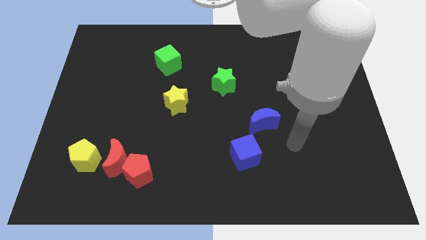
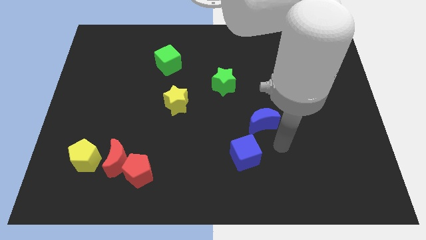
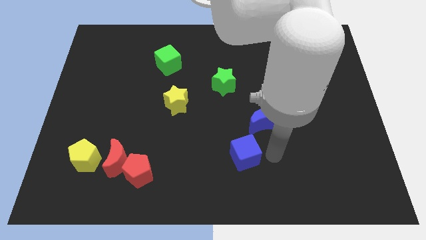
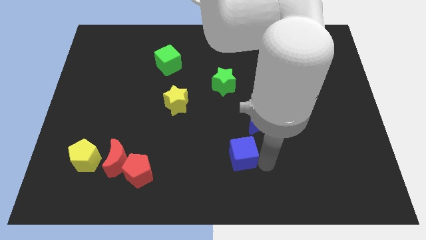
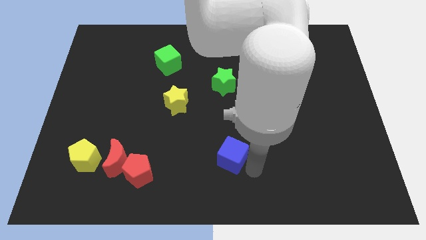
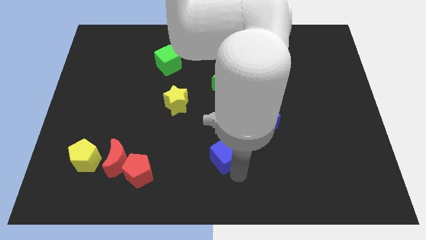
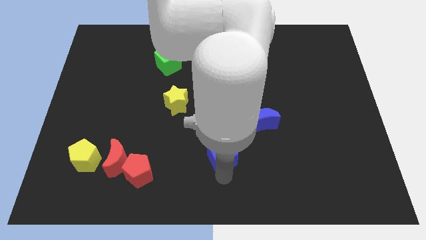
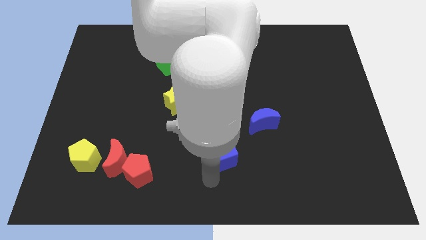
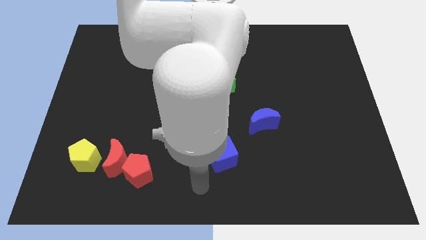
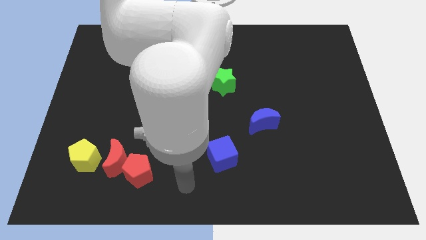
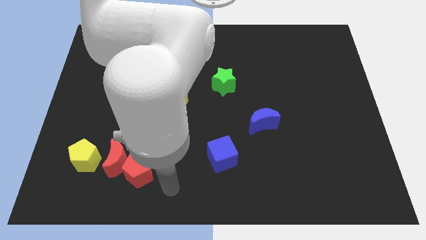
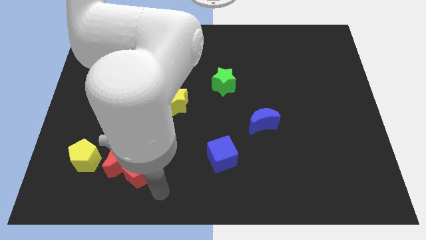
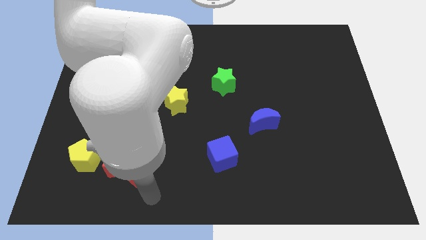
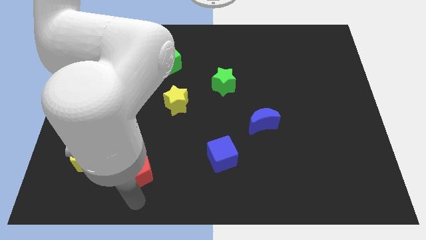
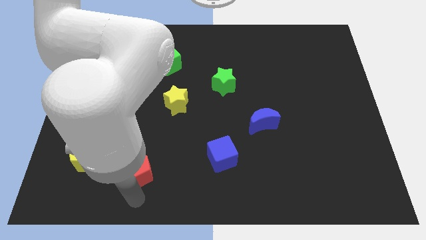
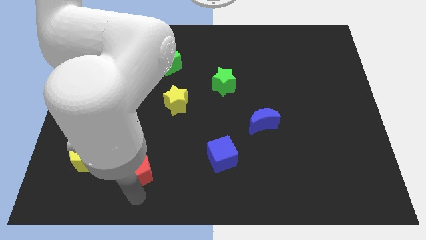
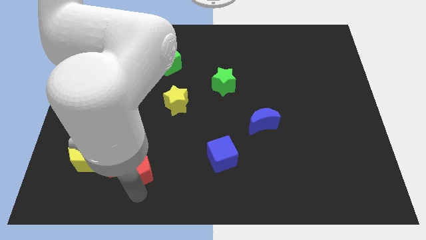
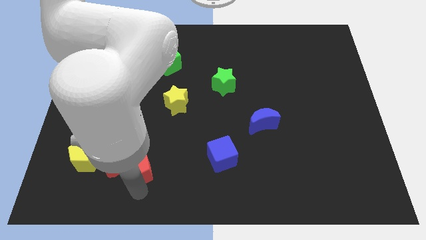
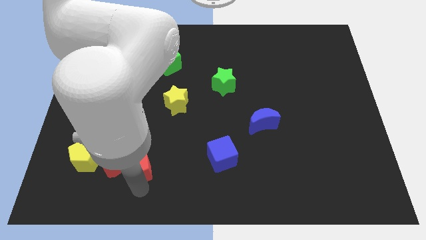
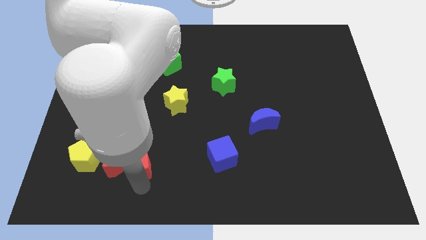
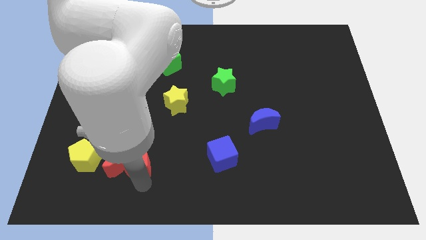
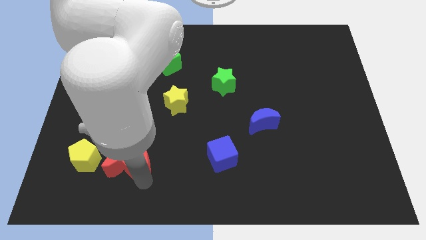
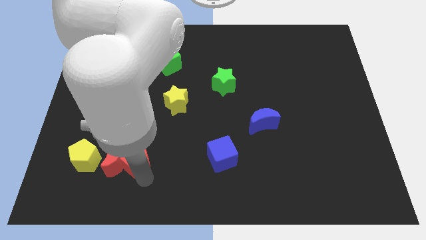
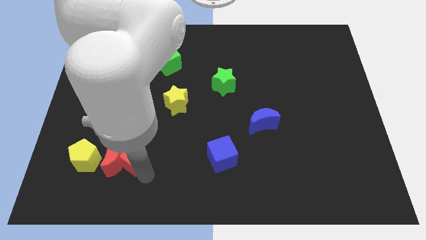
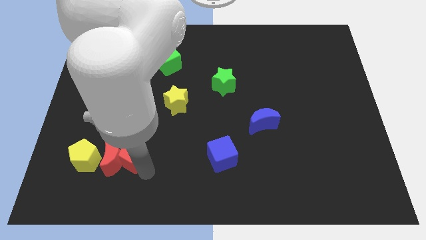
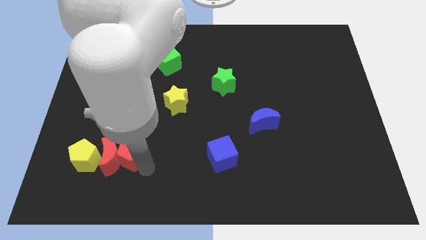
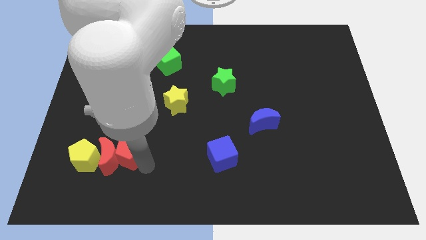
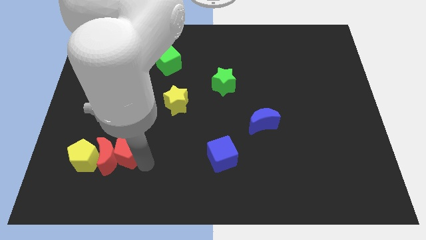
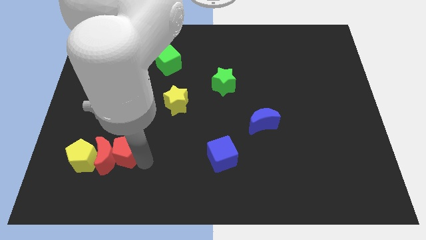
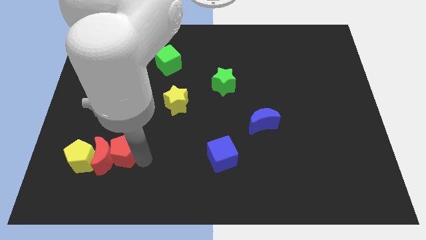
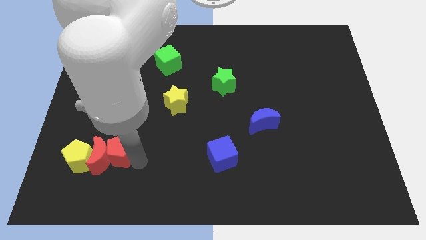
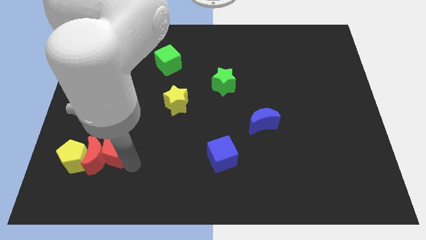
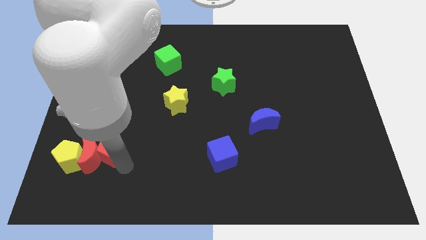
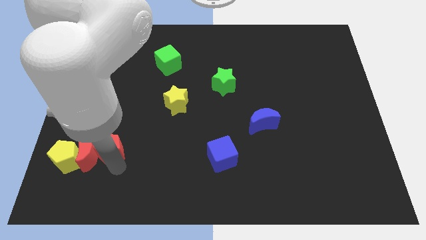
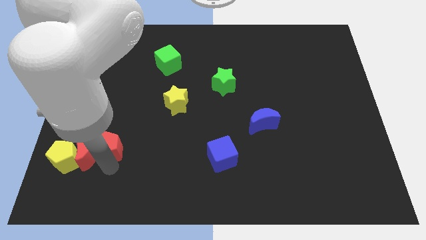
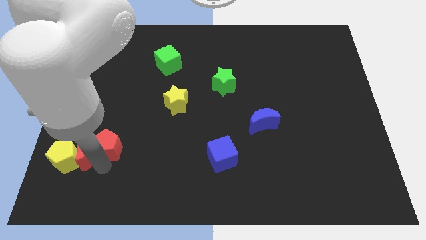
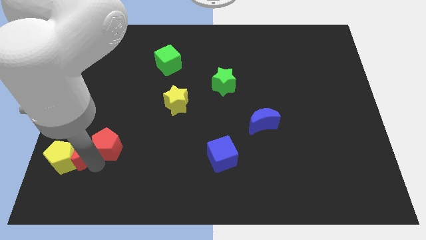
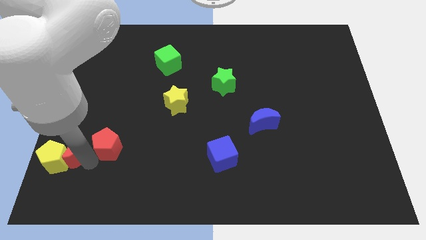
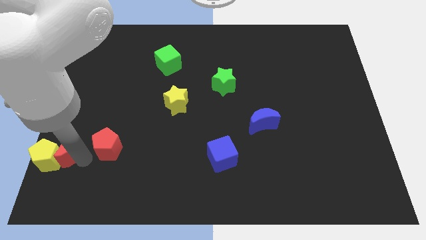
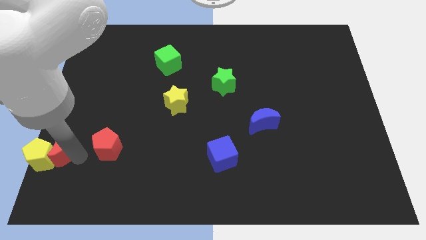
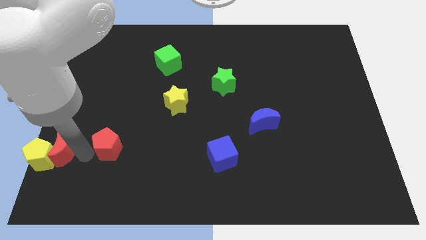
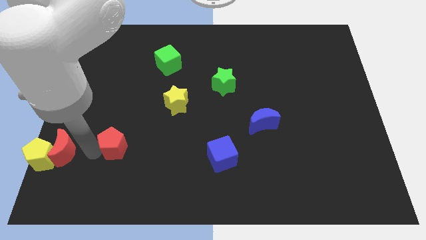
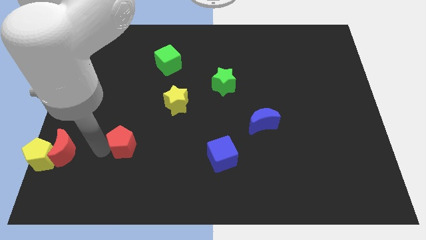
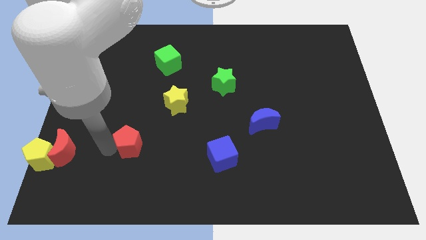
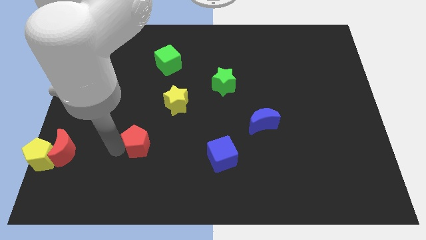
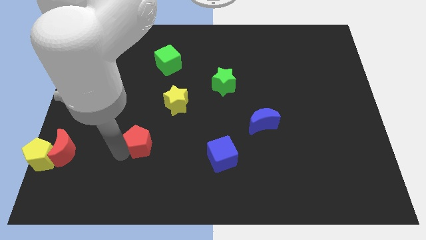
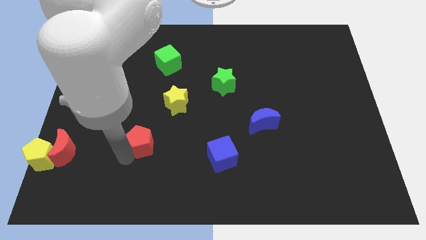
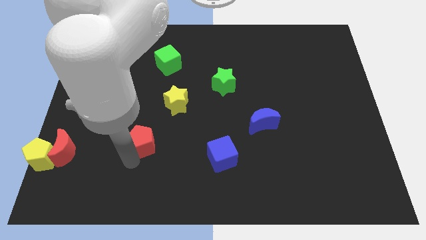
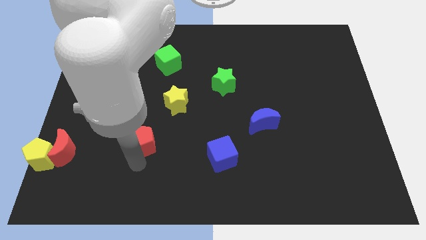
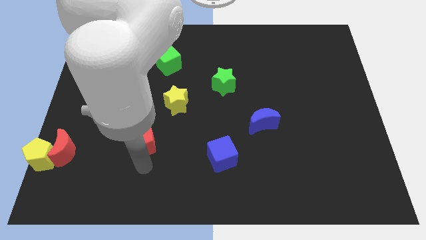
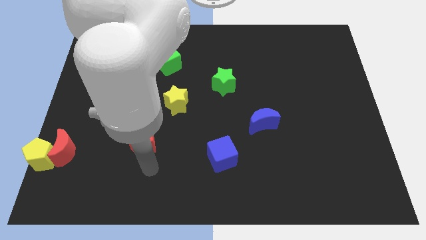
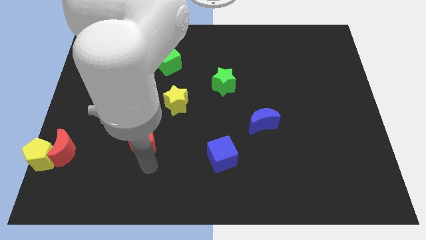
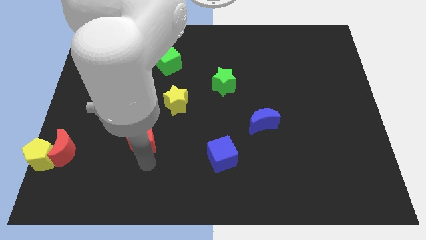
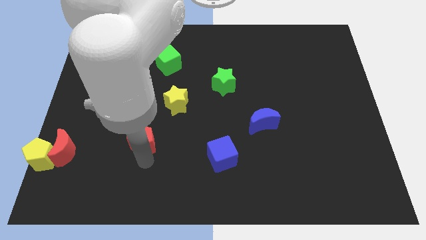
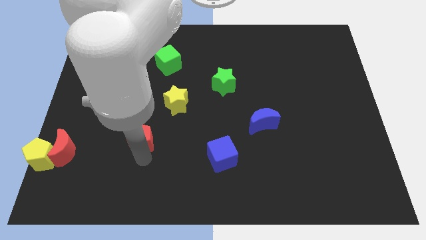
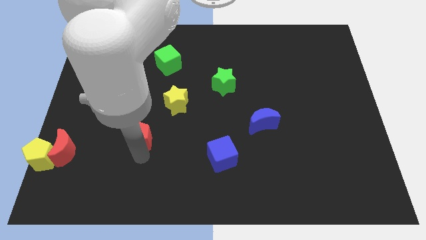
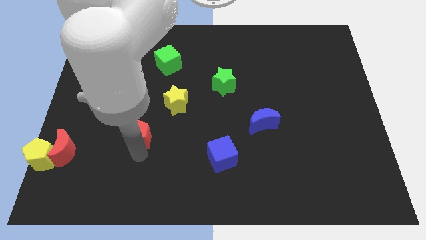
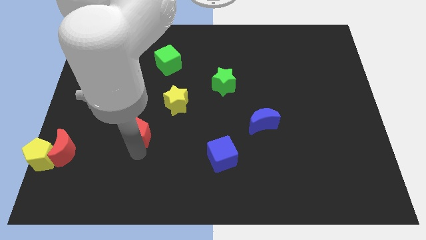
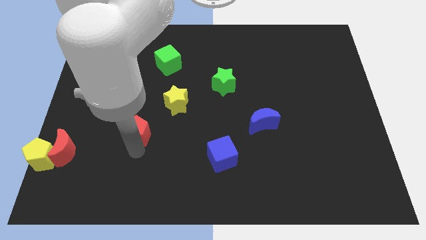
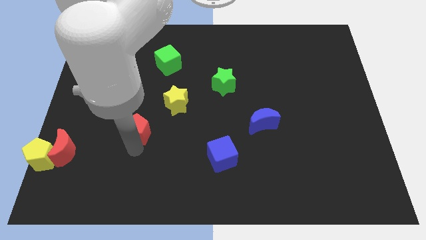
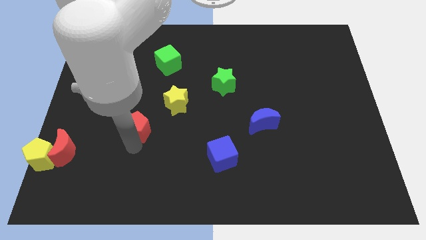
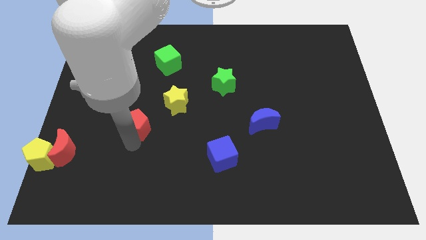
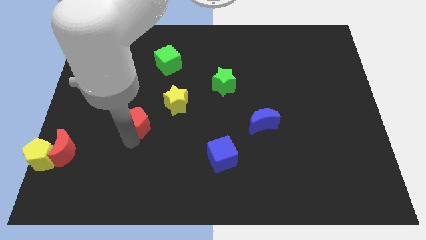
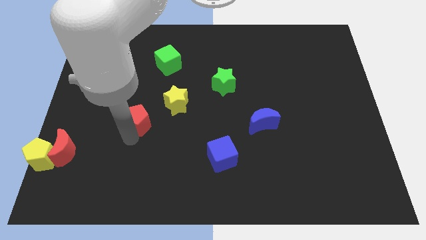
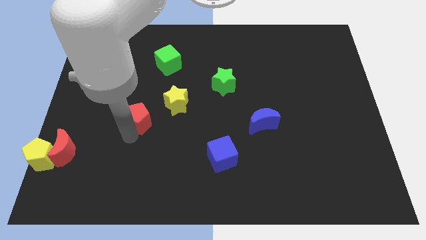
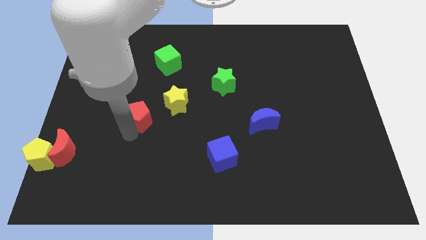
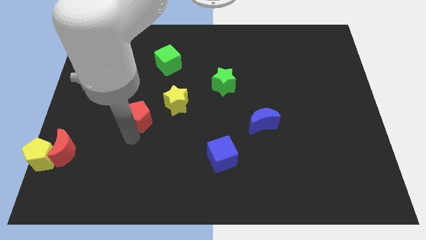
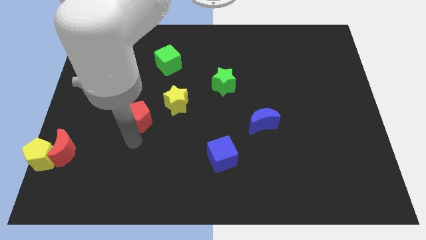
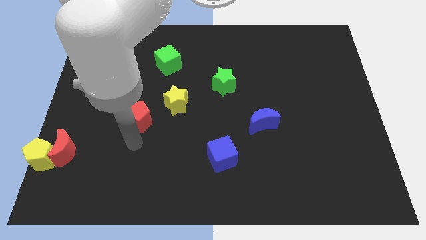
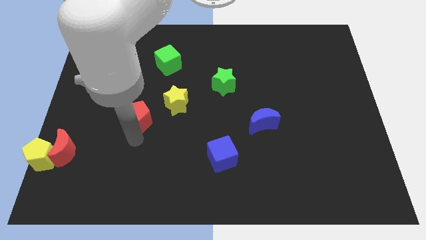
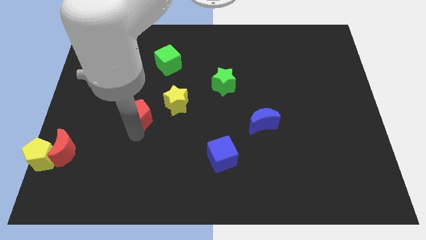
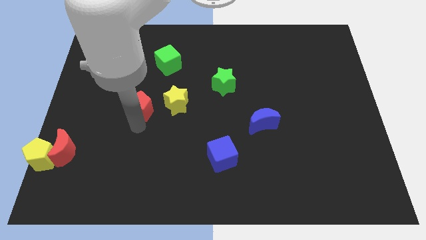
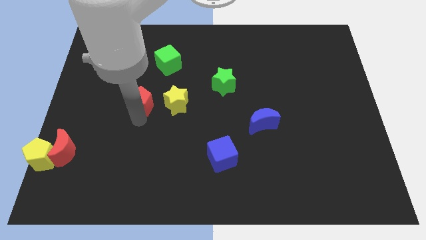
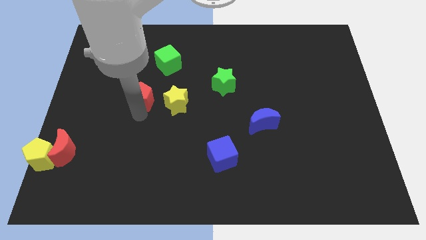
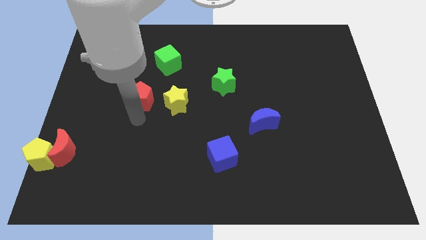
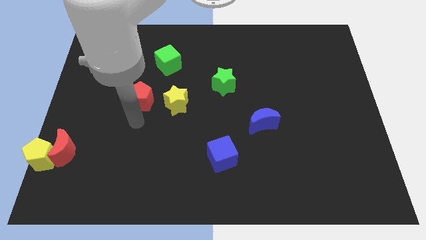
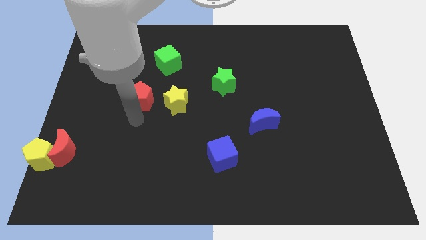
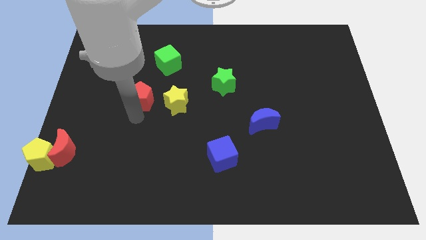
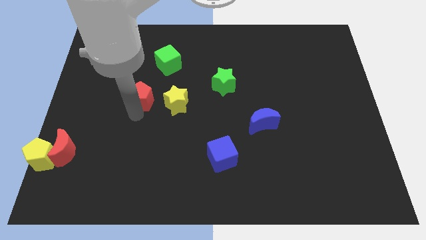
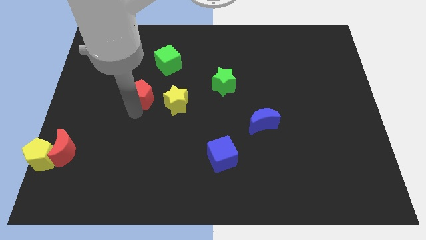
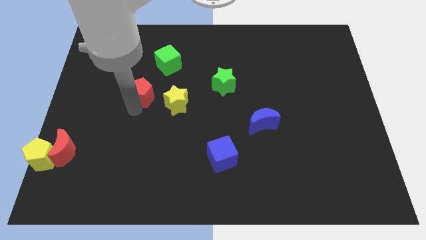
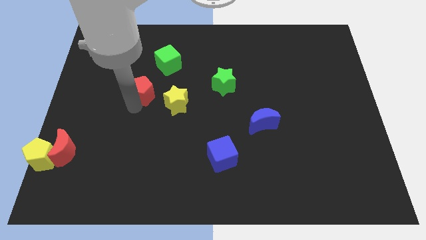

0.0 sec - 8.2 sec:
put the red pentagon to the bottom left of the green cube
